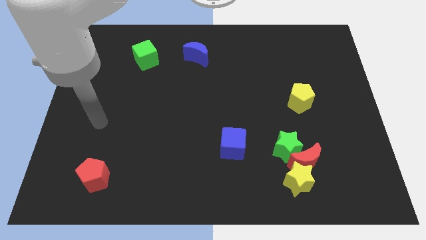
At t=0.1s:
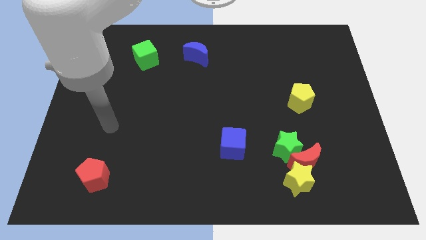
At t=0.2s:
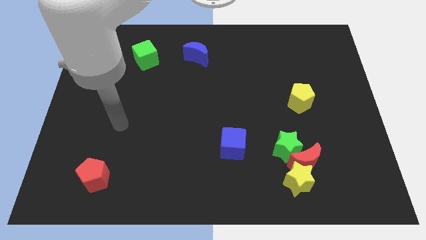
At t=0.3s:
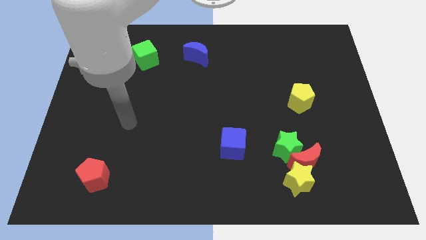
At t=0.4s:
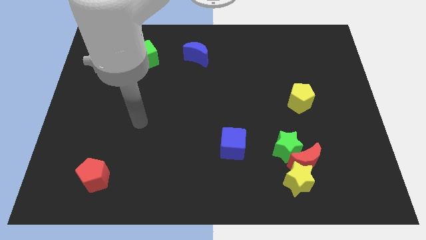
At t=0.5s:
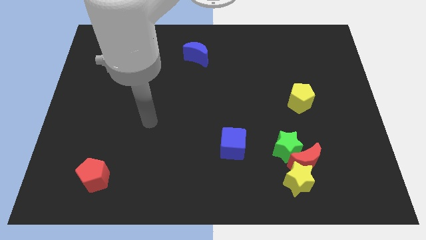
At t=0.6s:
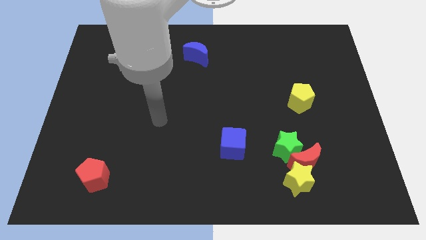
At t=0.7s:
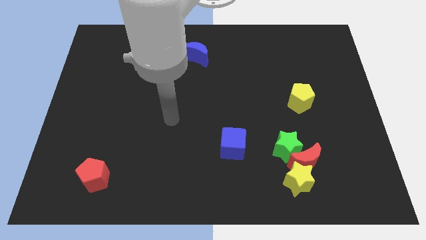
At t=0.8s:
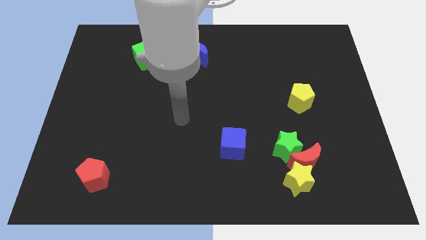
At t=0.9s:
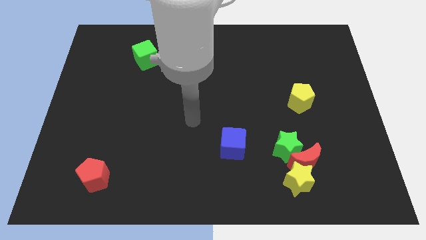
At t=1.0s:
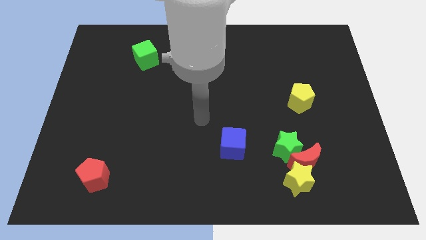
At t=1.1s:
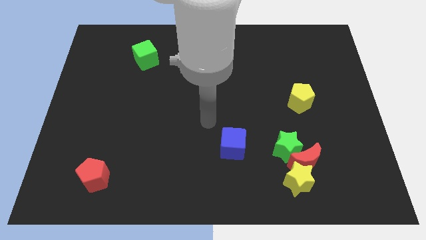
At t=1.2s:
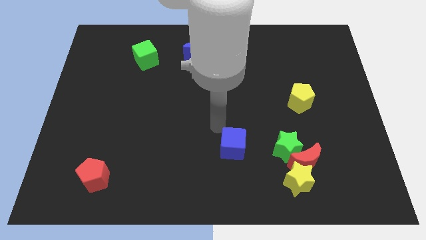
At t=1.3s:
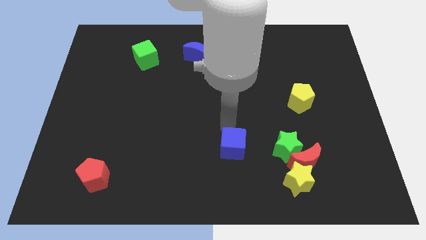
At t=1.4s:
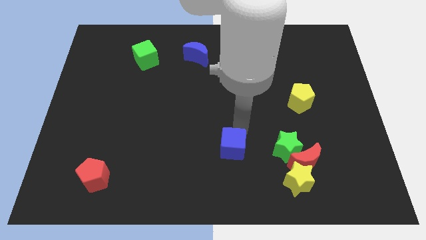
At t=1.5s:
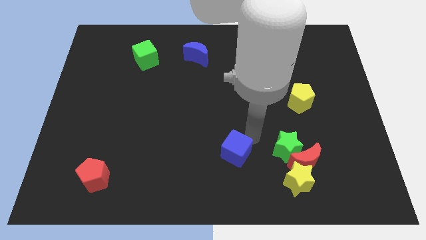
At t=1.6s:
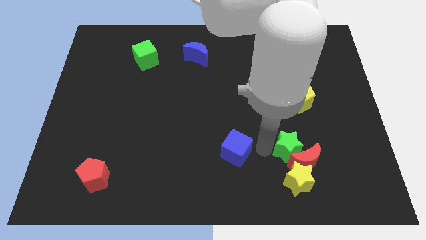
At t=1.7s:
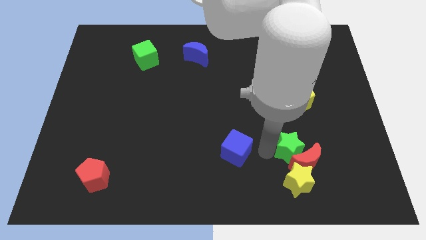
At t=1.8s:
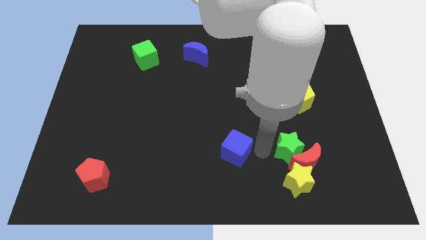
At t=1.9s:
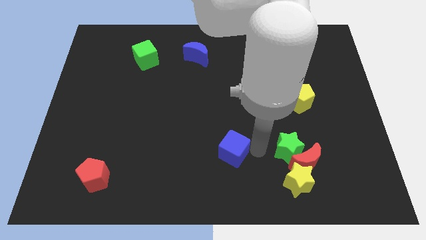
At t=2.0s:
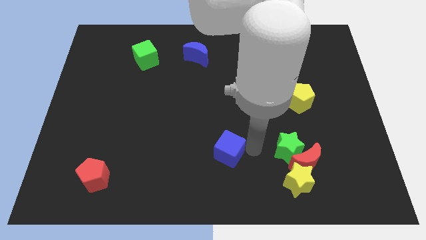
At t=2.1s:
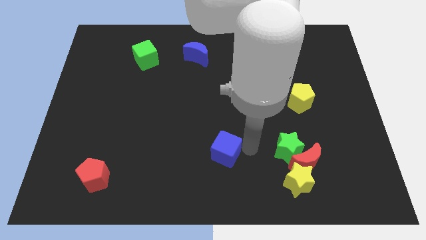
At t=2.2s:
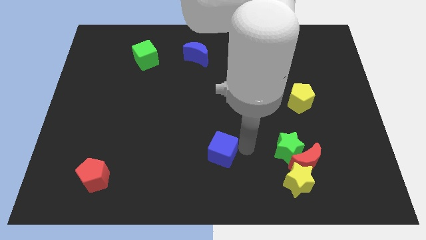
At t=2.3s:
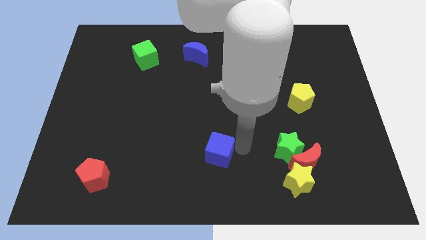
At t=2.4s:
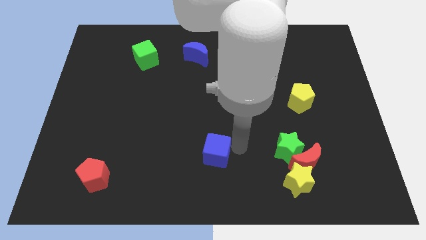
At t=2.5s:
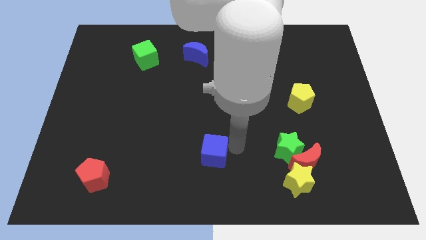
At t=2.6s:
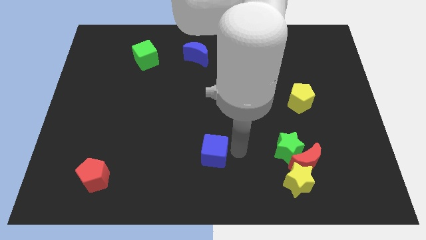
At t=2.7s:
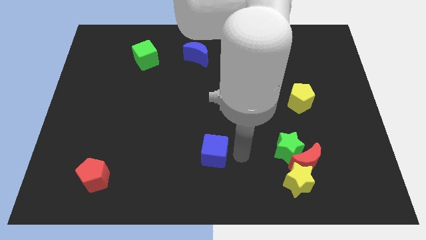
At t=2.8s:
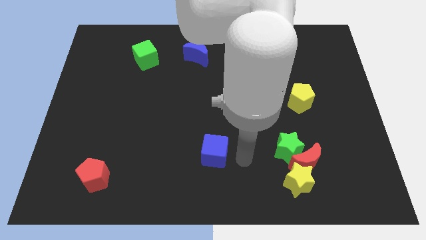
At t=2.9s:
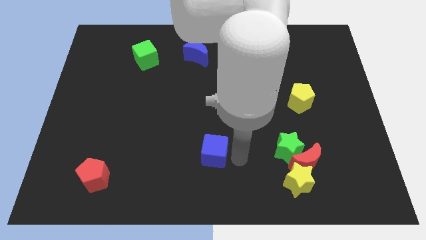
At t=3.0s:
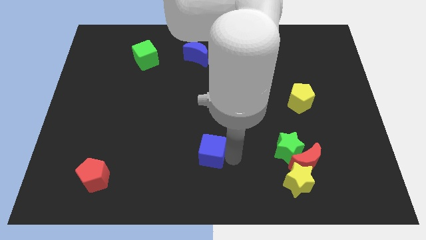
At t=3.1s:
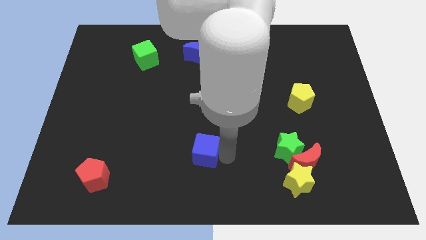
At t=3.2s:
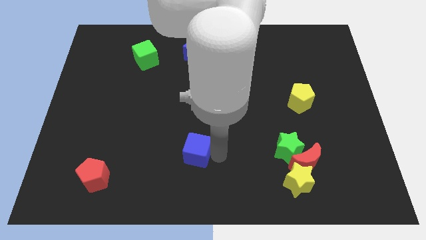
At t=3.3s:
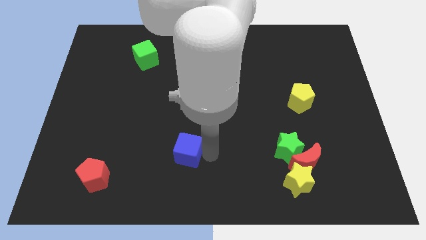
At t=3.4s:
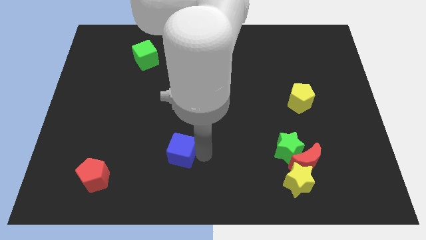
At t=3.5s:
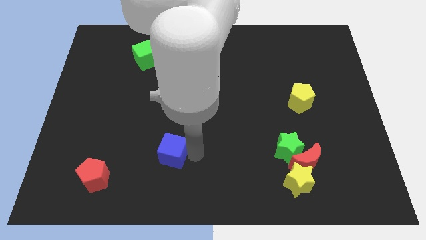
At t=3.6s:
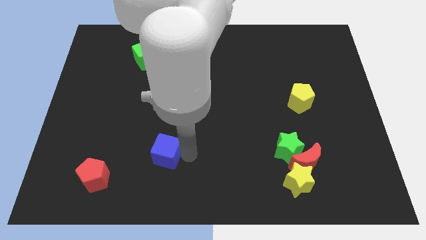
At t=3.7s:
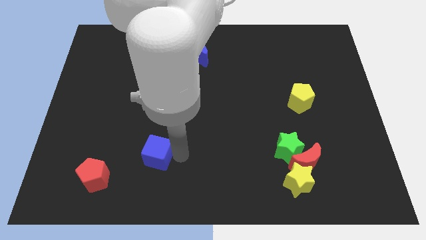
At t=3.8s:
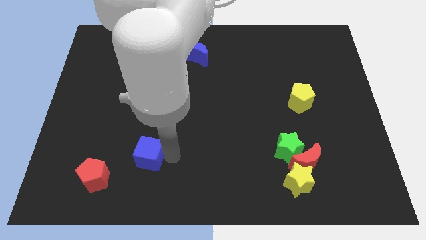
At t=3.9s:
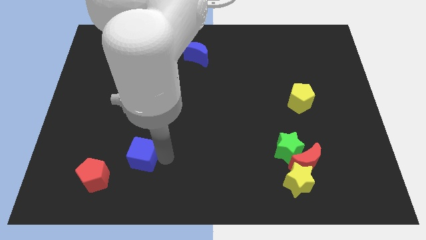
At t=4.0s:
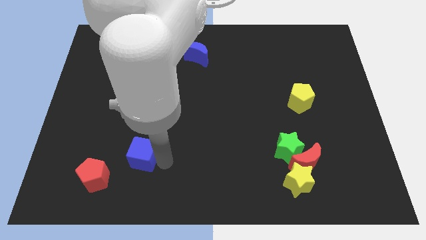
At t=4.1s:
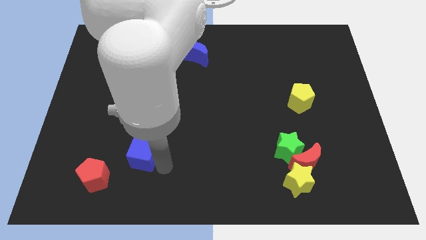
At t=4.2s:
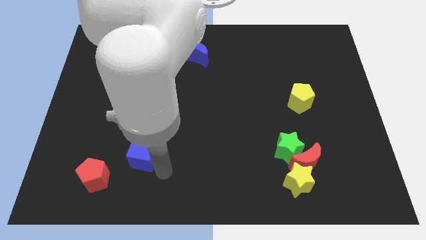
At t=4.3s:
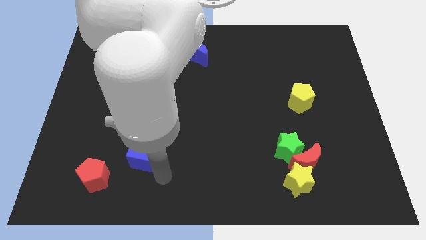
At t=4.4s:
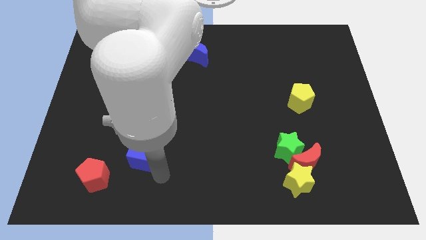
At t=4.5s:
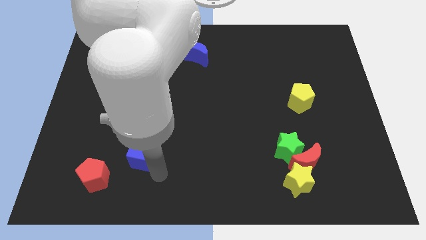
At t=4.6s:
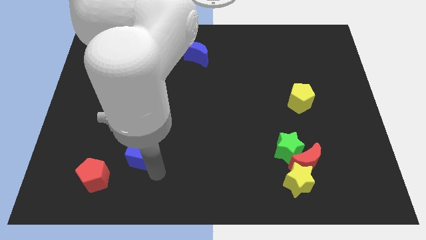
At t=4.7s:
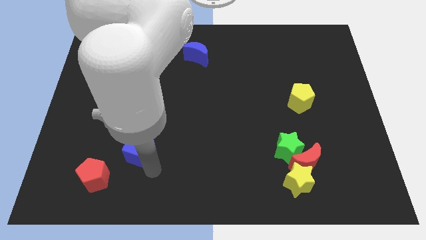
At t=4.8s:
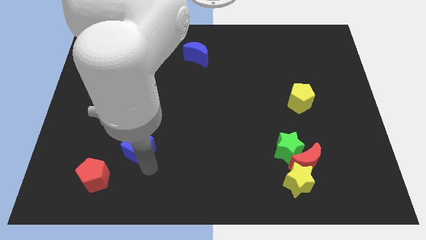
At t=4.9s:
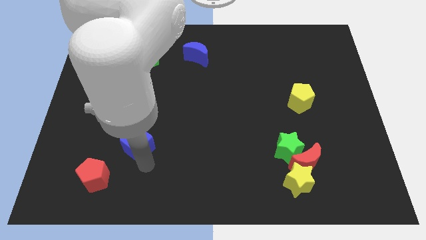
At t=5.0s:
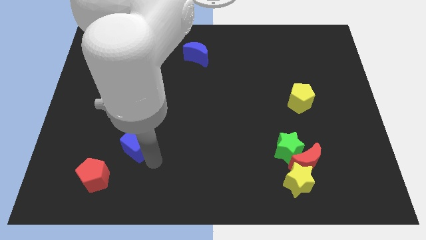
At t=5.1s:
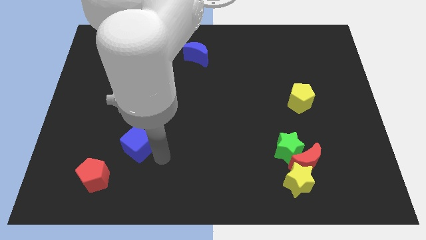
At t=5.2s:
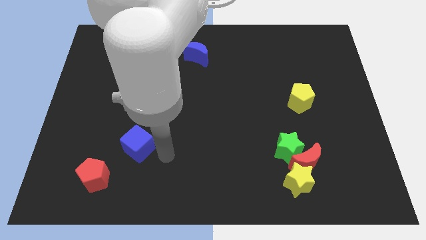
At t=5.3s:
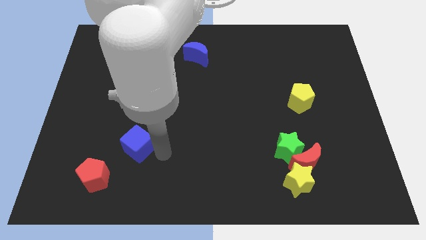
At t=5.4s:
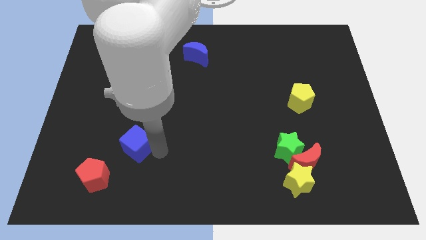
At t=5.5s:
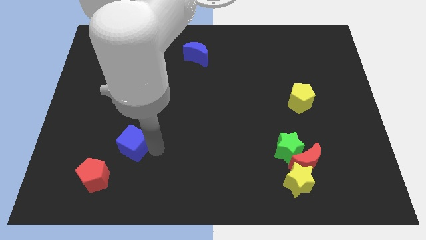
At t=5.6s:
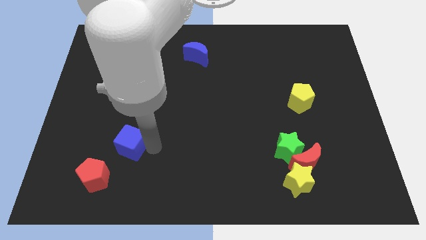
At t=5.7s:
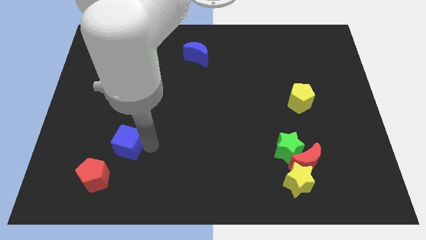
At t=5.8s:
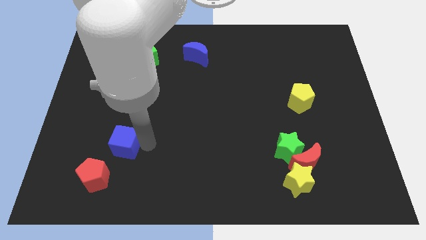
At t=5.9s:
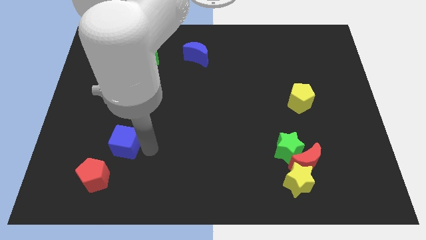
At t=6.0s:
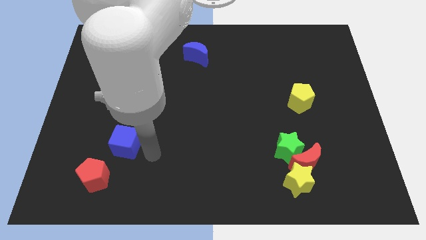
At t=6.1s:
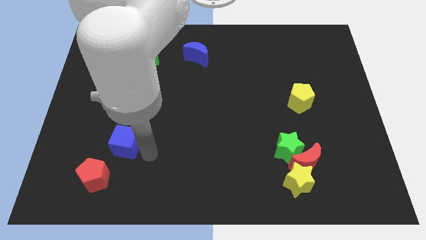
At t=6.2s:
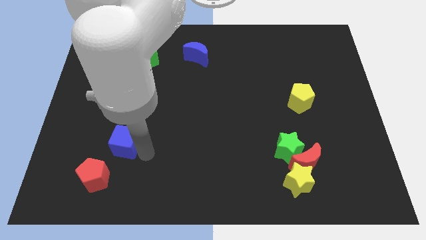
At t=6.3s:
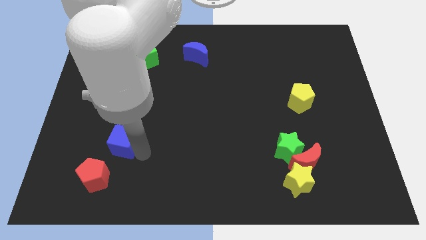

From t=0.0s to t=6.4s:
slide the blue cube to the top side of the red pentagon

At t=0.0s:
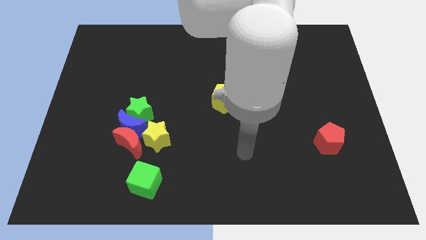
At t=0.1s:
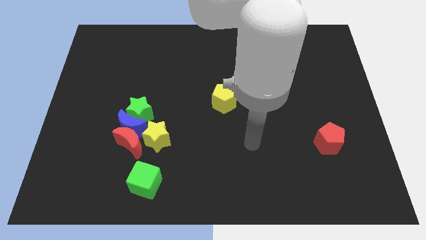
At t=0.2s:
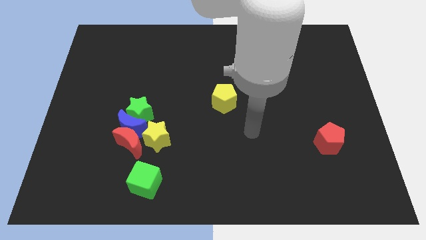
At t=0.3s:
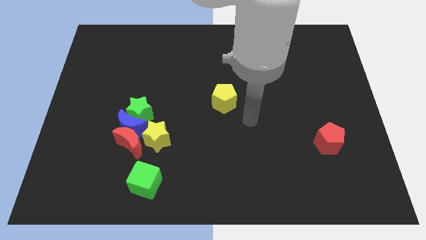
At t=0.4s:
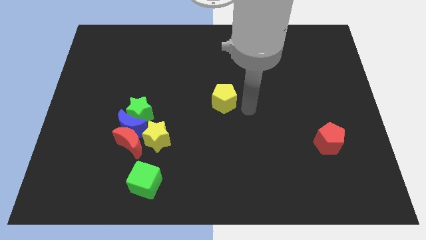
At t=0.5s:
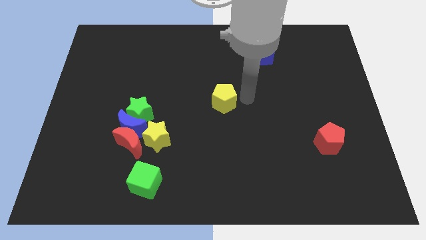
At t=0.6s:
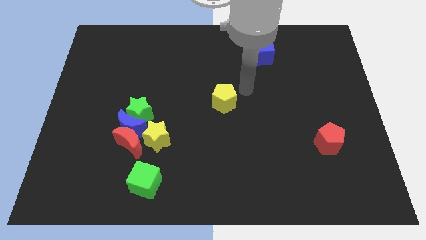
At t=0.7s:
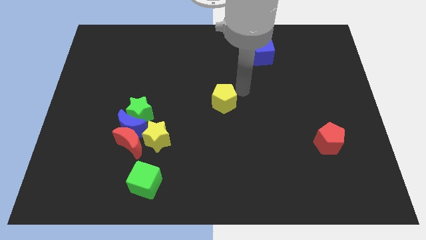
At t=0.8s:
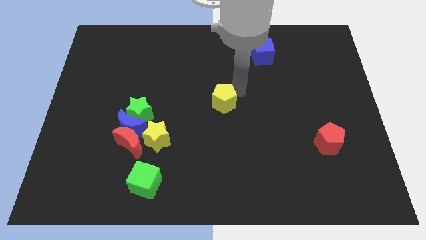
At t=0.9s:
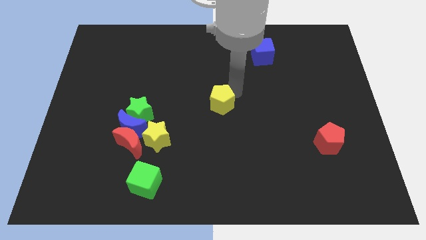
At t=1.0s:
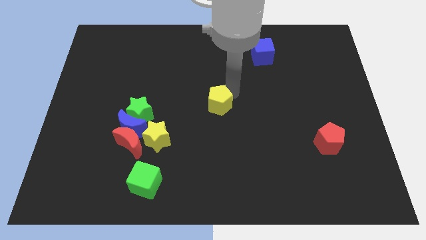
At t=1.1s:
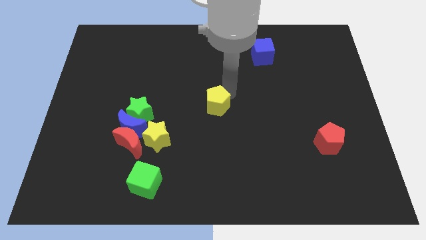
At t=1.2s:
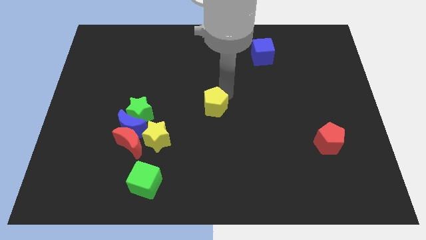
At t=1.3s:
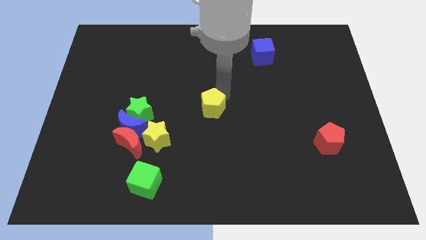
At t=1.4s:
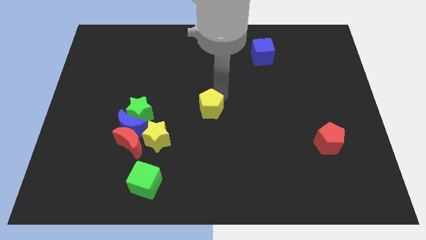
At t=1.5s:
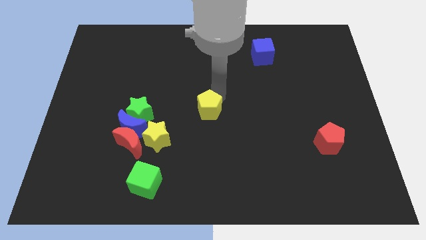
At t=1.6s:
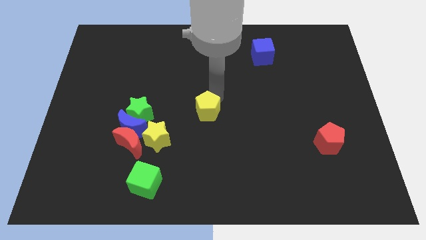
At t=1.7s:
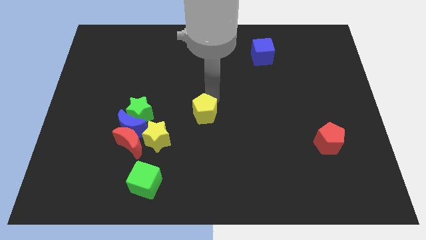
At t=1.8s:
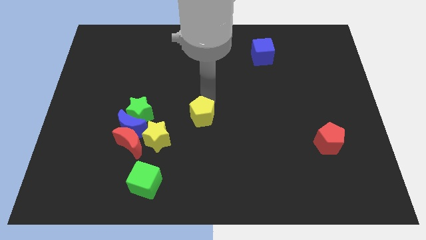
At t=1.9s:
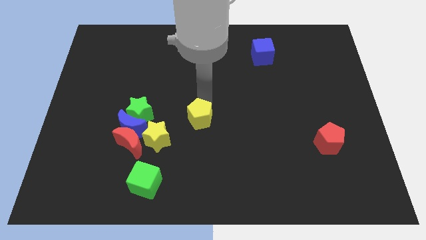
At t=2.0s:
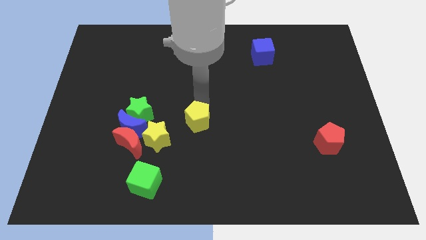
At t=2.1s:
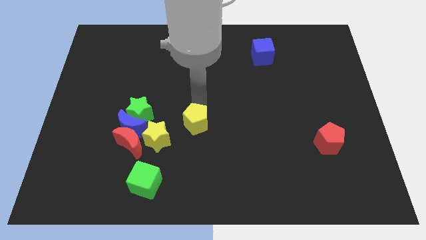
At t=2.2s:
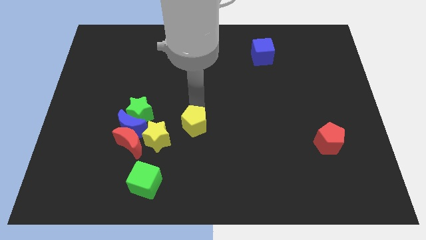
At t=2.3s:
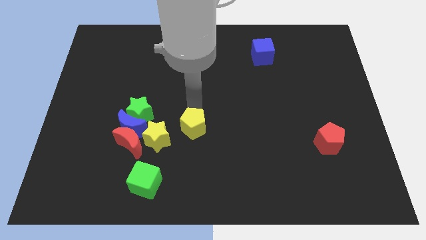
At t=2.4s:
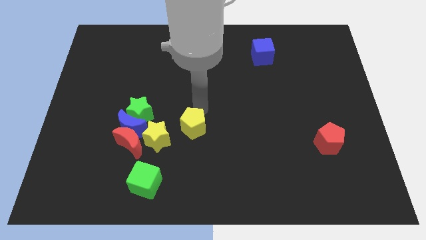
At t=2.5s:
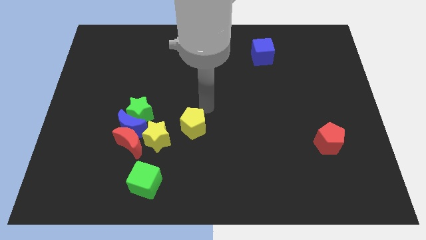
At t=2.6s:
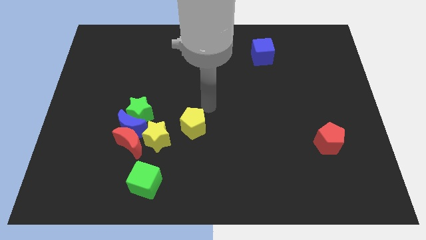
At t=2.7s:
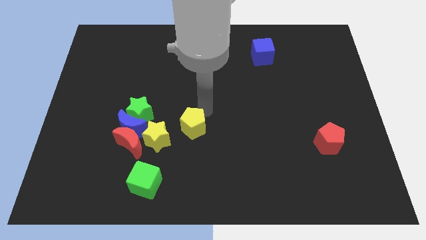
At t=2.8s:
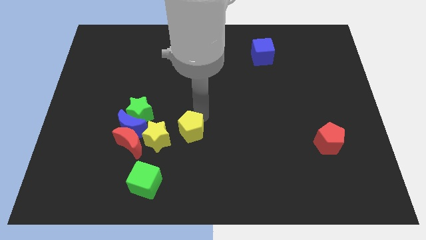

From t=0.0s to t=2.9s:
slide the yellow pentagon to the right side of the red moon
